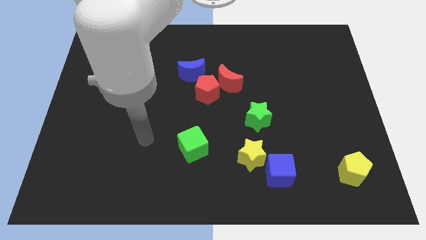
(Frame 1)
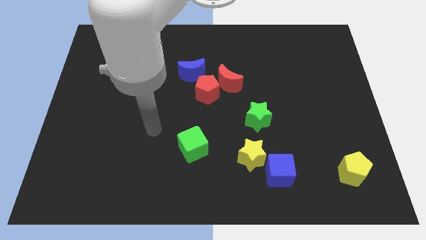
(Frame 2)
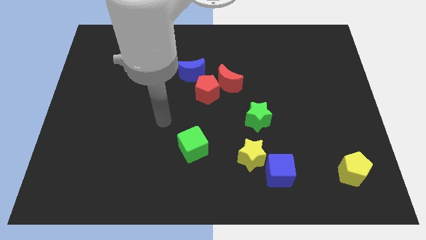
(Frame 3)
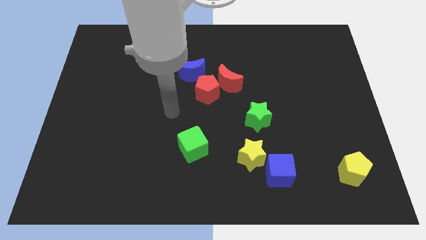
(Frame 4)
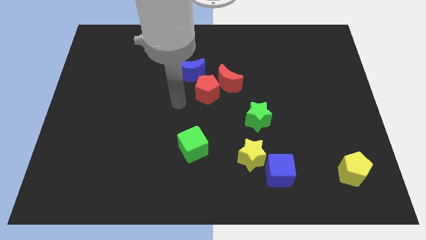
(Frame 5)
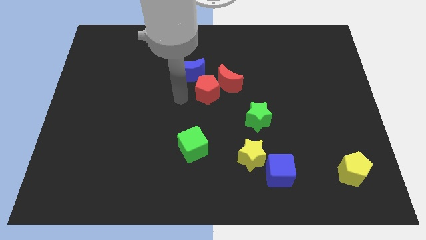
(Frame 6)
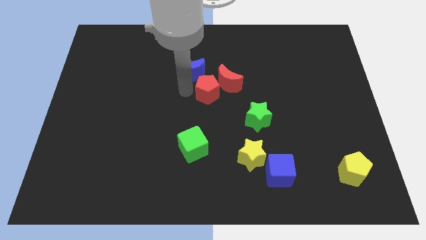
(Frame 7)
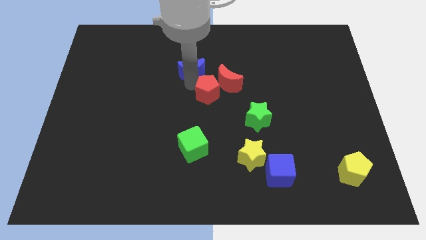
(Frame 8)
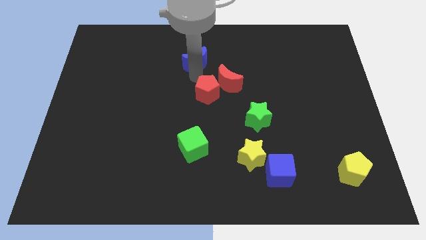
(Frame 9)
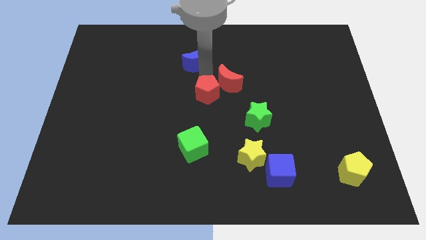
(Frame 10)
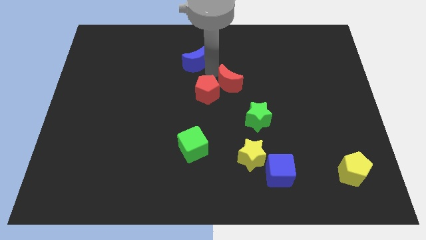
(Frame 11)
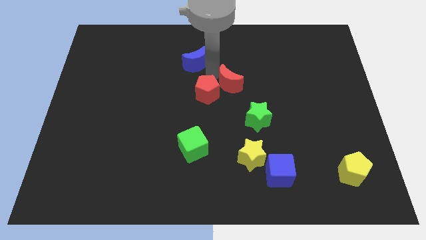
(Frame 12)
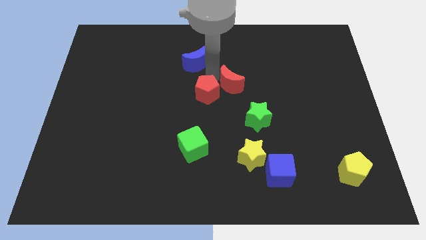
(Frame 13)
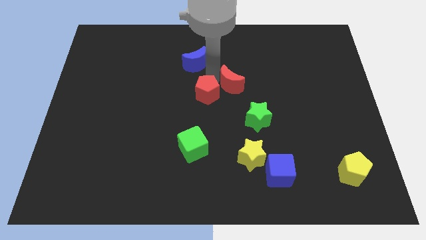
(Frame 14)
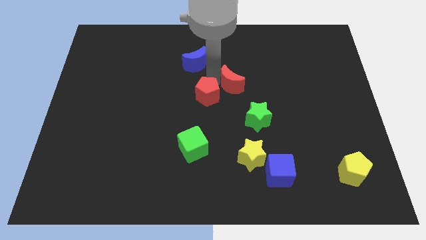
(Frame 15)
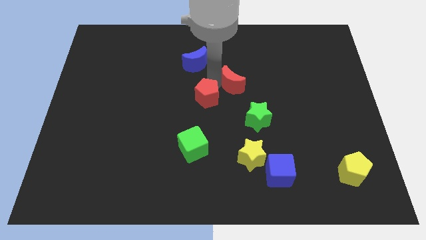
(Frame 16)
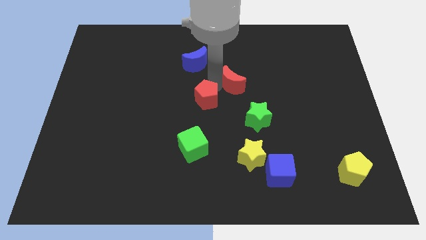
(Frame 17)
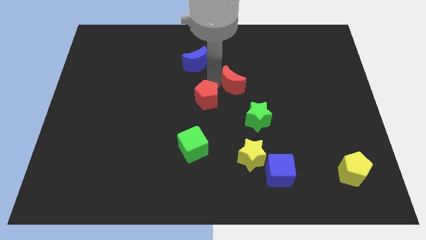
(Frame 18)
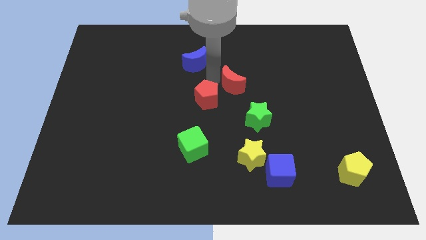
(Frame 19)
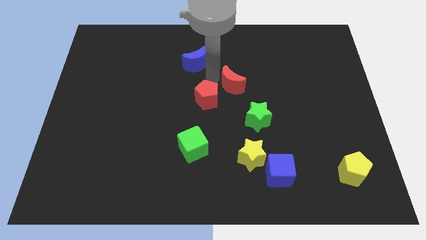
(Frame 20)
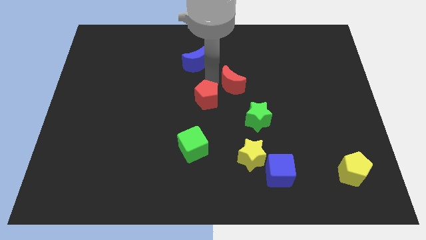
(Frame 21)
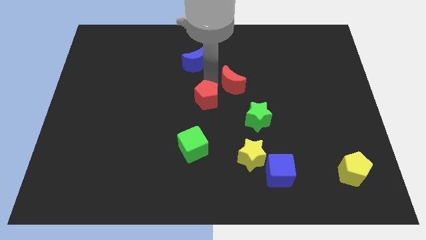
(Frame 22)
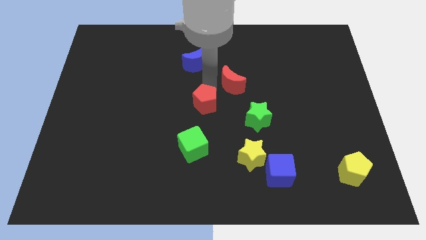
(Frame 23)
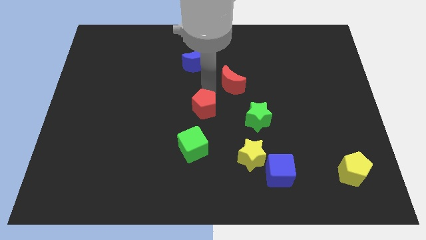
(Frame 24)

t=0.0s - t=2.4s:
separate the red pentagon from the red moon and blue moon

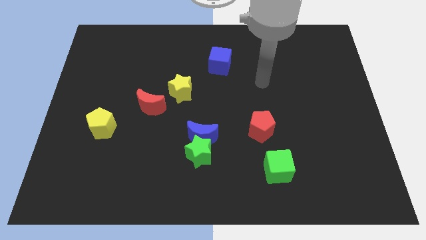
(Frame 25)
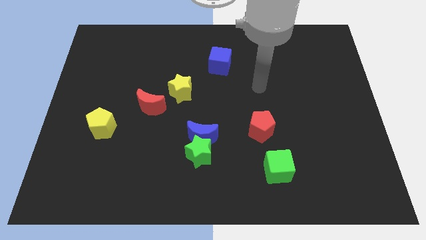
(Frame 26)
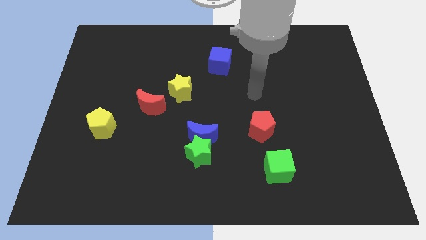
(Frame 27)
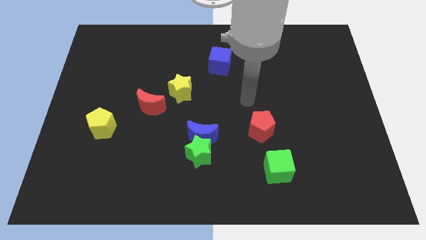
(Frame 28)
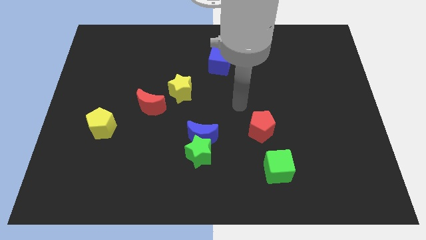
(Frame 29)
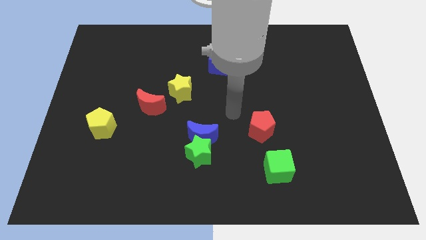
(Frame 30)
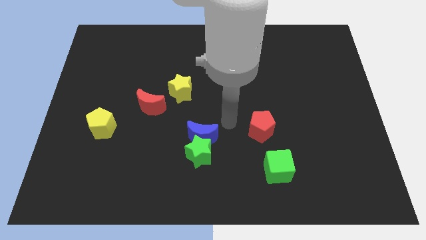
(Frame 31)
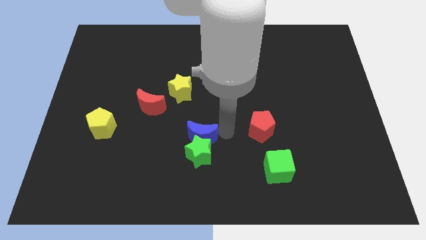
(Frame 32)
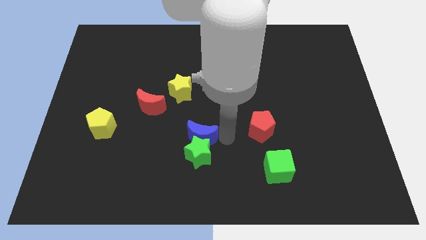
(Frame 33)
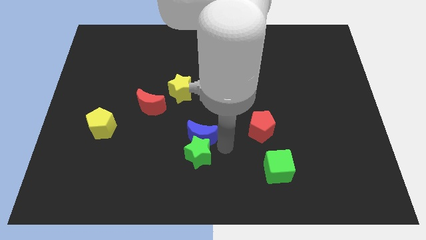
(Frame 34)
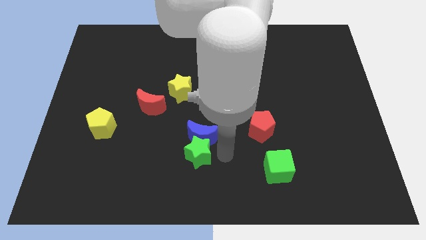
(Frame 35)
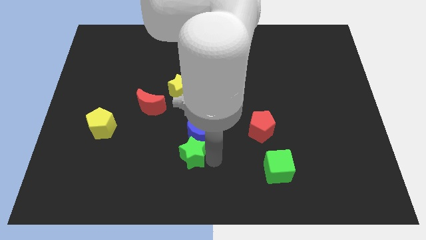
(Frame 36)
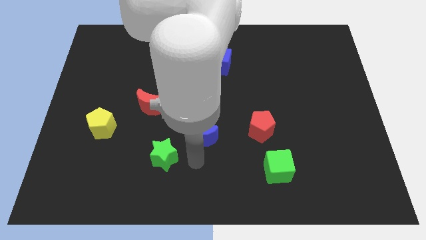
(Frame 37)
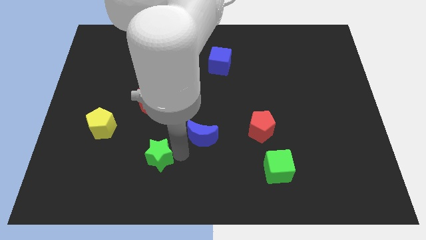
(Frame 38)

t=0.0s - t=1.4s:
separate the blue moon from the green star

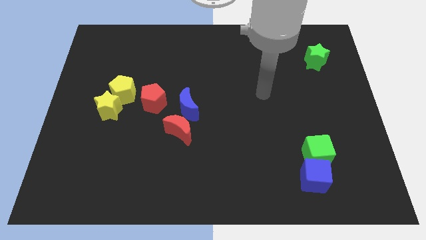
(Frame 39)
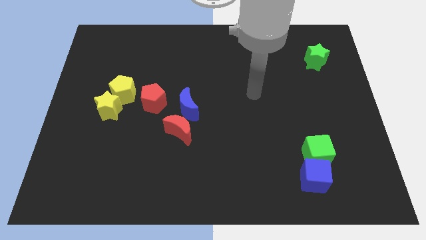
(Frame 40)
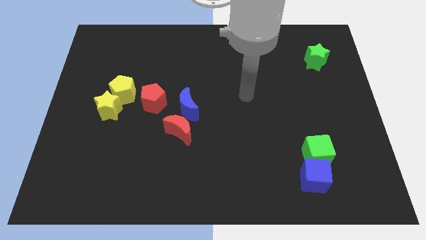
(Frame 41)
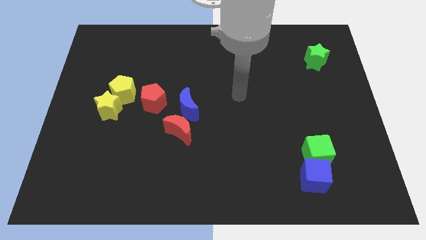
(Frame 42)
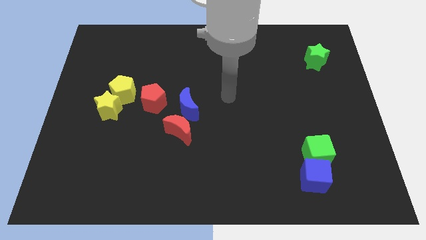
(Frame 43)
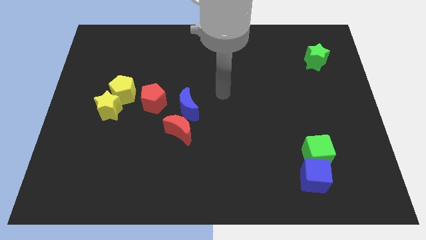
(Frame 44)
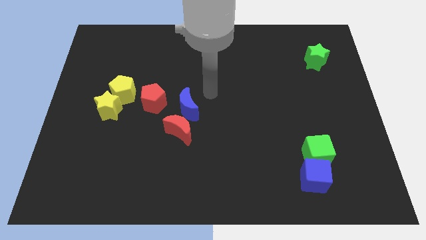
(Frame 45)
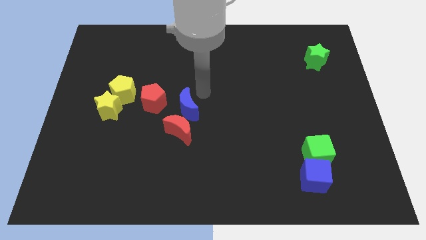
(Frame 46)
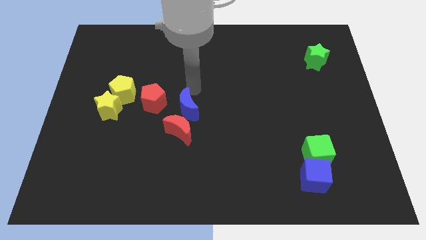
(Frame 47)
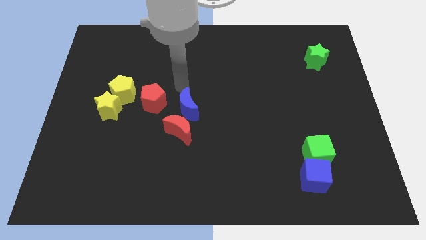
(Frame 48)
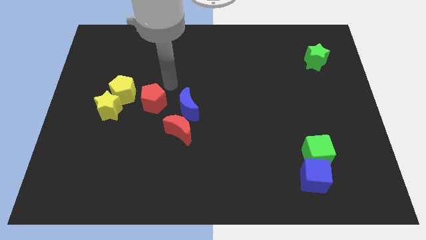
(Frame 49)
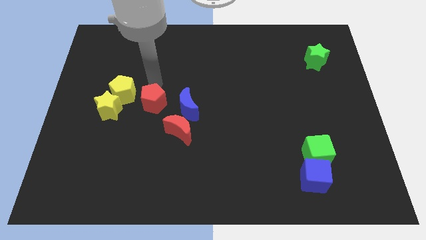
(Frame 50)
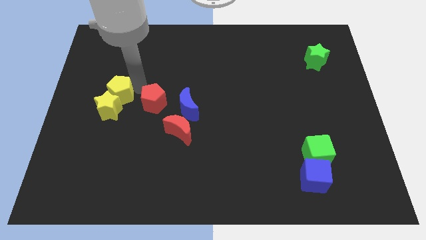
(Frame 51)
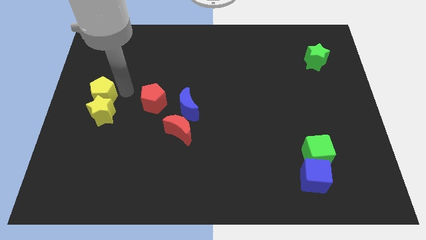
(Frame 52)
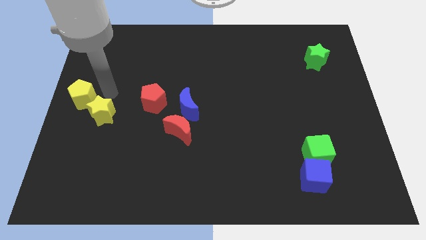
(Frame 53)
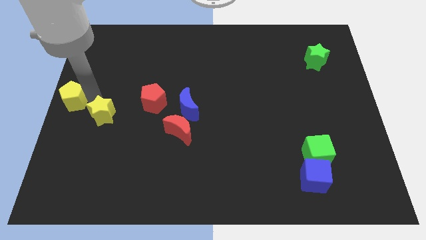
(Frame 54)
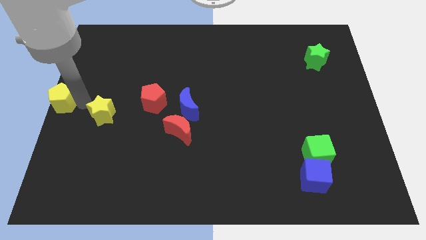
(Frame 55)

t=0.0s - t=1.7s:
pull the yellow star apart from the yellow pentagon

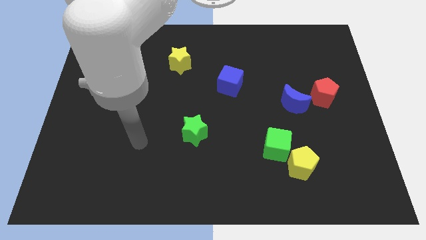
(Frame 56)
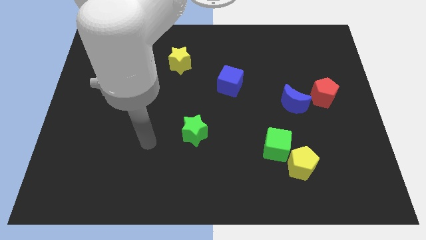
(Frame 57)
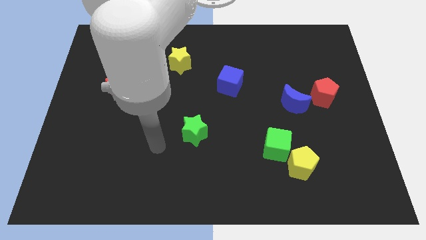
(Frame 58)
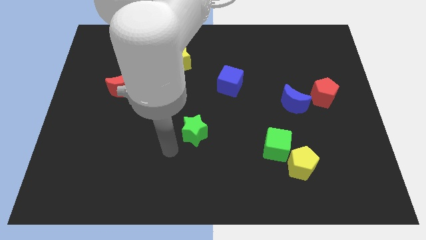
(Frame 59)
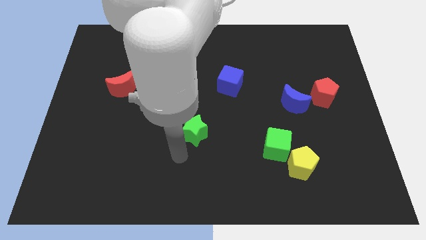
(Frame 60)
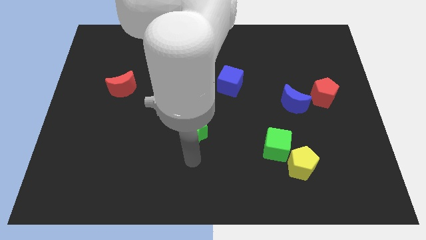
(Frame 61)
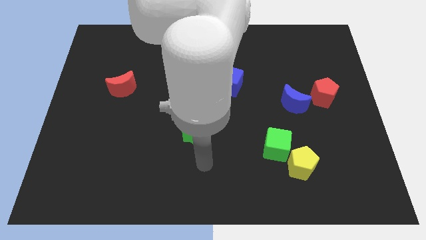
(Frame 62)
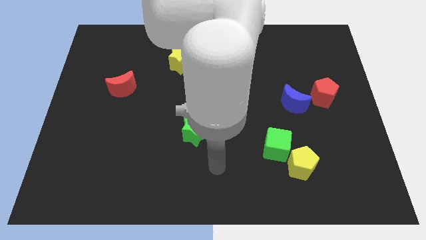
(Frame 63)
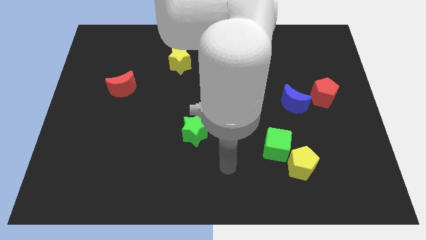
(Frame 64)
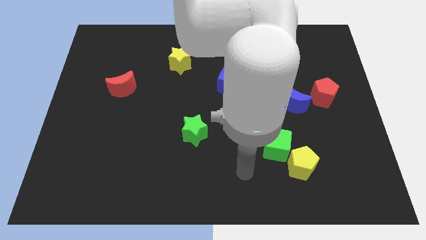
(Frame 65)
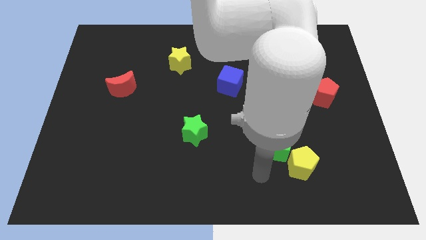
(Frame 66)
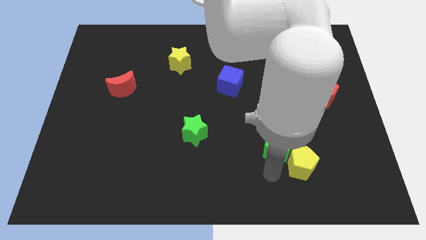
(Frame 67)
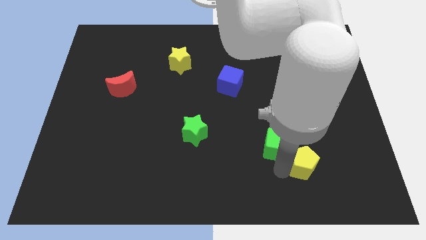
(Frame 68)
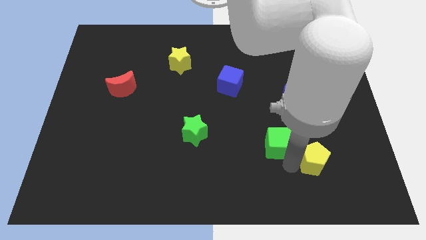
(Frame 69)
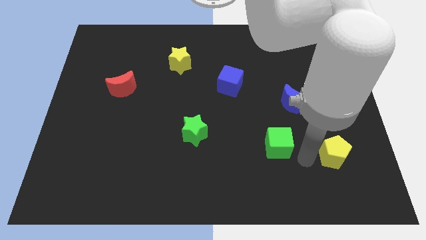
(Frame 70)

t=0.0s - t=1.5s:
move the green cube away from the yellow pentagon

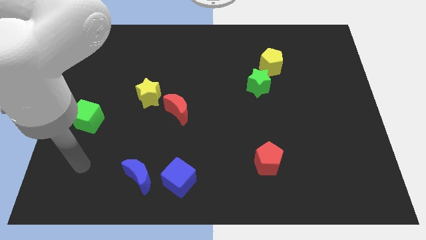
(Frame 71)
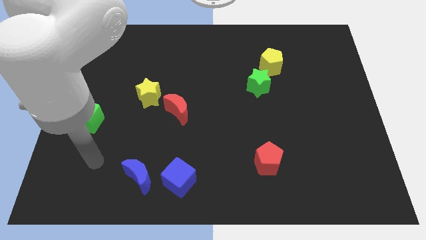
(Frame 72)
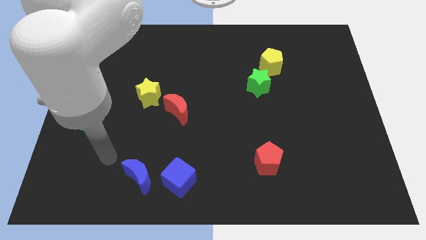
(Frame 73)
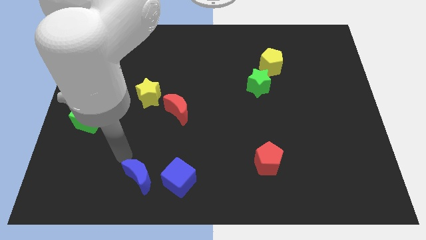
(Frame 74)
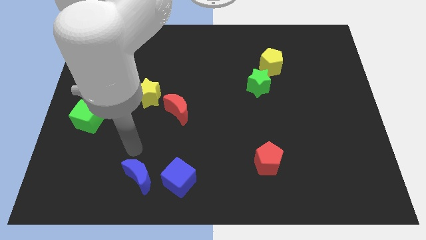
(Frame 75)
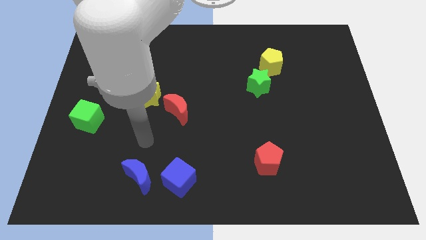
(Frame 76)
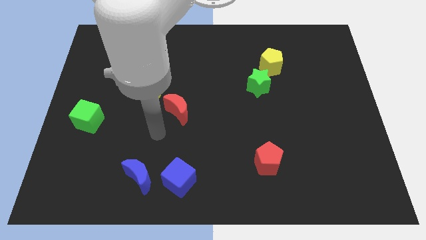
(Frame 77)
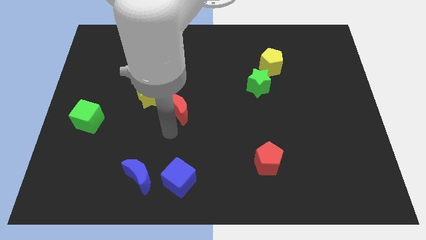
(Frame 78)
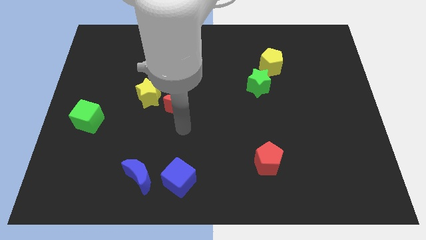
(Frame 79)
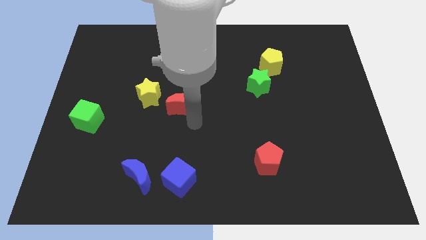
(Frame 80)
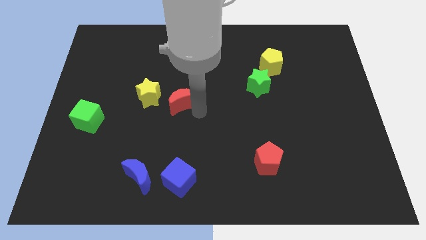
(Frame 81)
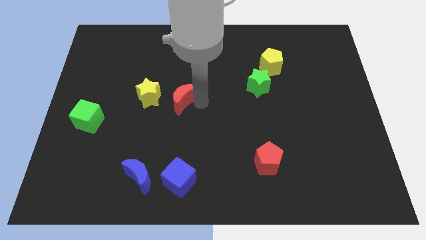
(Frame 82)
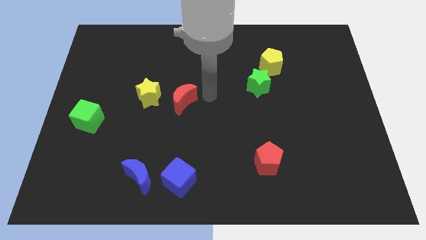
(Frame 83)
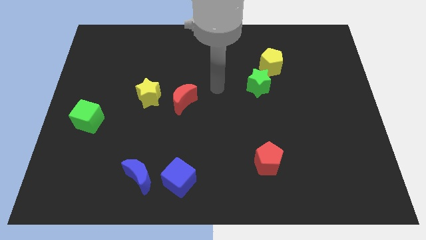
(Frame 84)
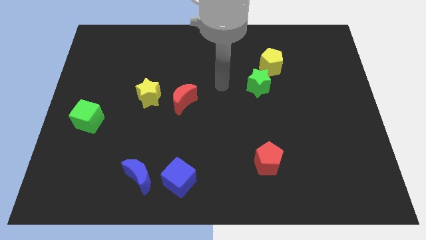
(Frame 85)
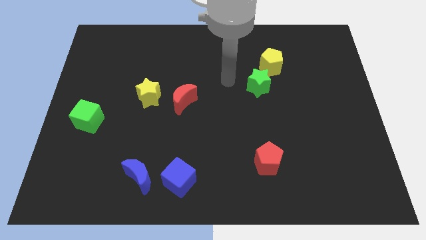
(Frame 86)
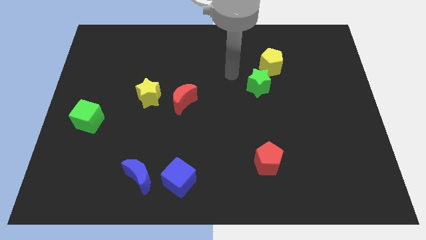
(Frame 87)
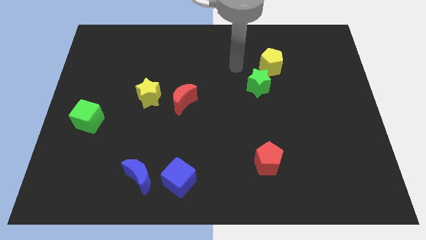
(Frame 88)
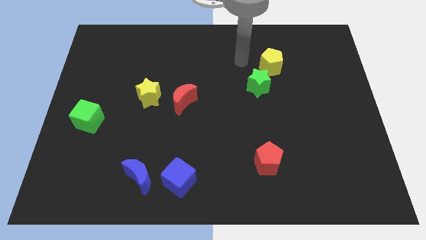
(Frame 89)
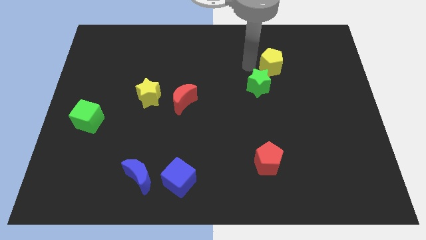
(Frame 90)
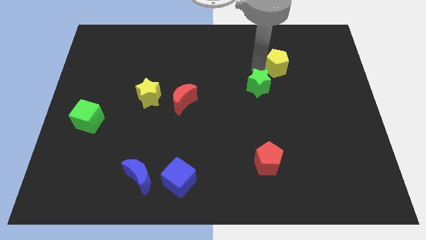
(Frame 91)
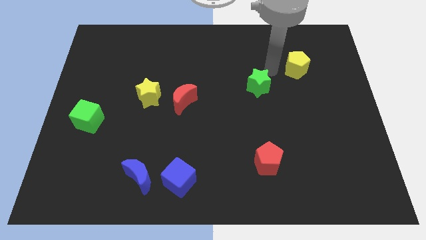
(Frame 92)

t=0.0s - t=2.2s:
move the green star away from the yellow pentagon
